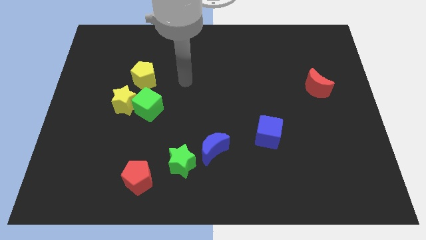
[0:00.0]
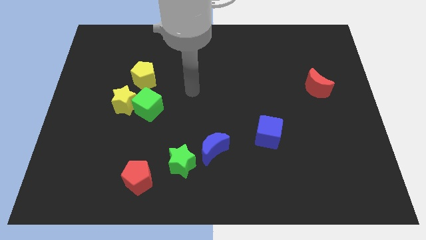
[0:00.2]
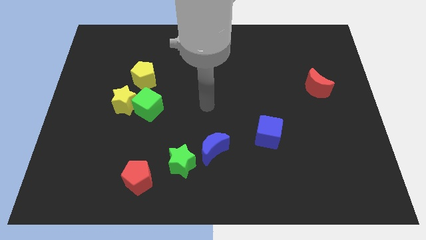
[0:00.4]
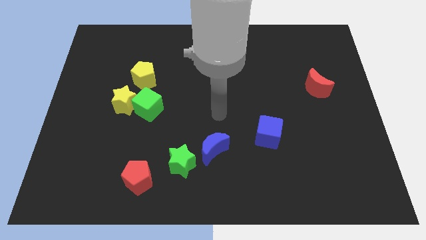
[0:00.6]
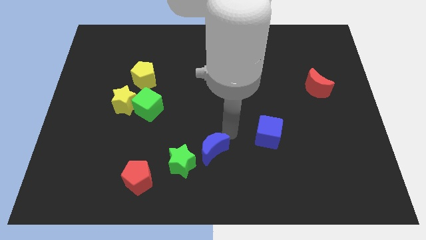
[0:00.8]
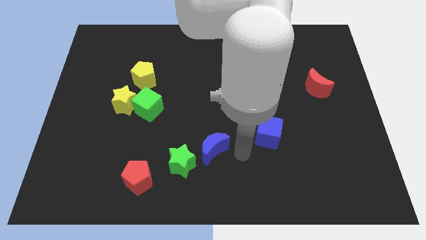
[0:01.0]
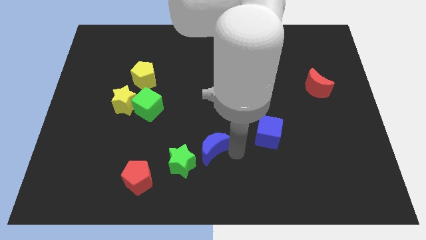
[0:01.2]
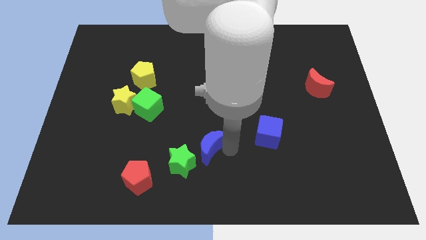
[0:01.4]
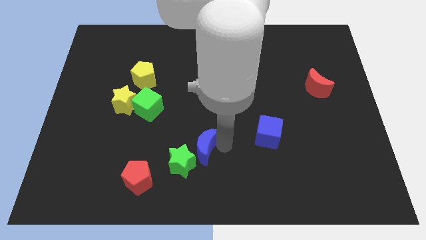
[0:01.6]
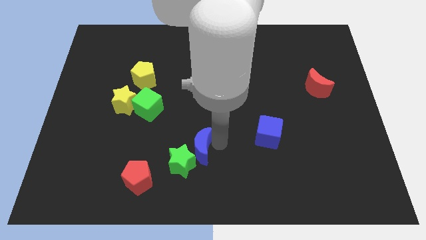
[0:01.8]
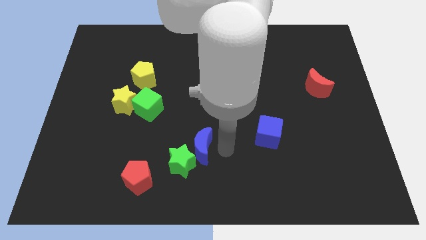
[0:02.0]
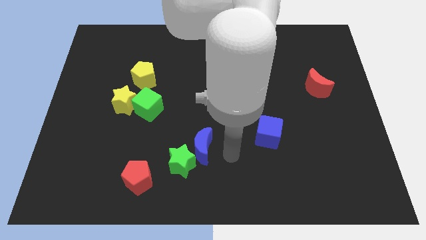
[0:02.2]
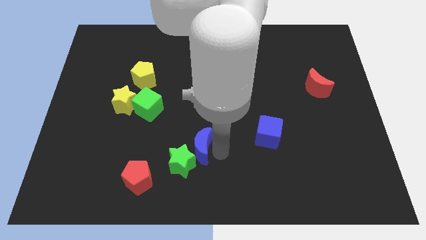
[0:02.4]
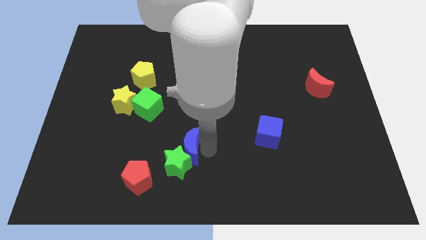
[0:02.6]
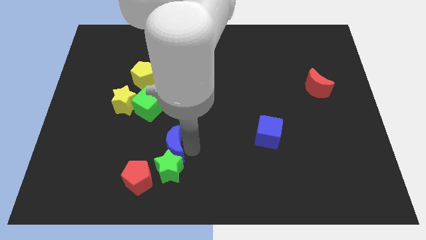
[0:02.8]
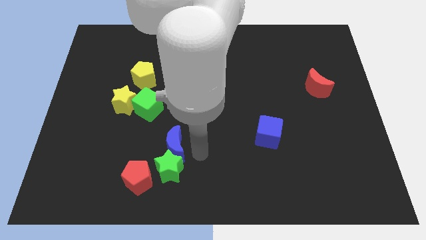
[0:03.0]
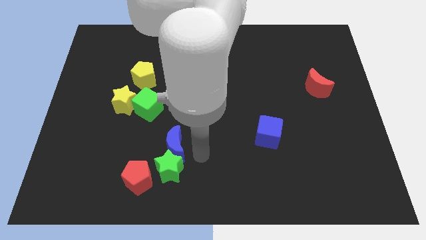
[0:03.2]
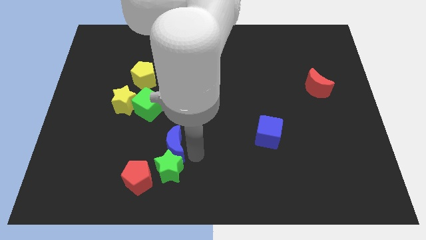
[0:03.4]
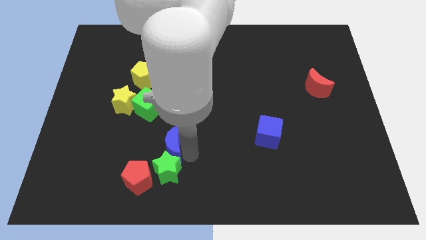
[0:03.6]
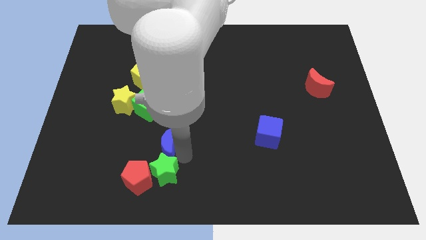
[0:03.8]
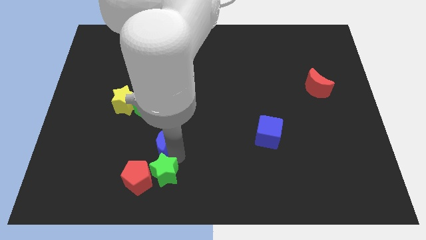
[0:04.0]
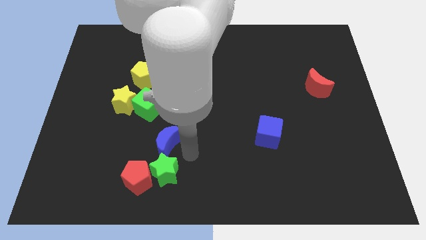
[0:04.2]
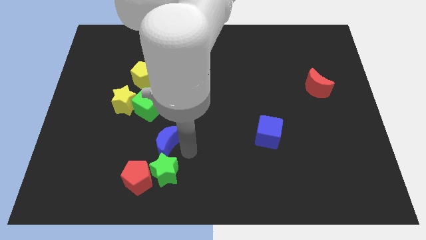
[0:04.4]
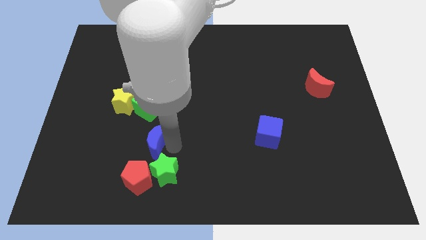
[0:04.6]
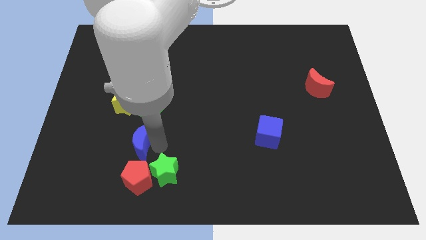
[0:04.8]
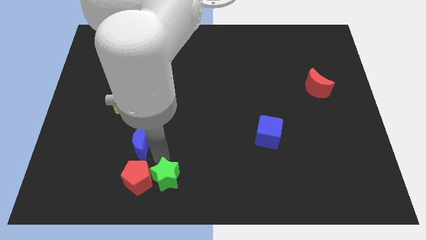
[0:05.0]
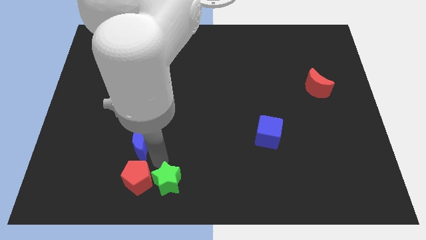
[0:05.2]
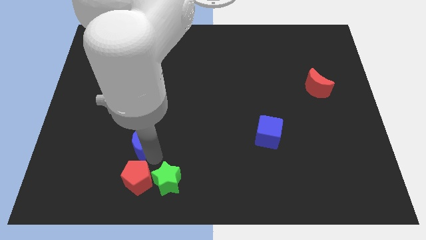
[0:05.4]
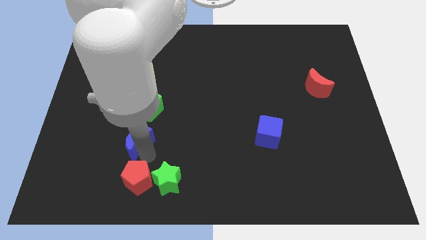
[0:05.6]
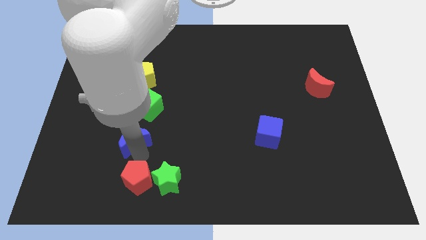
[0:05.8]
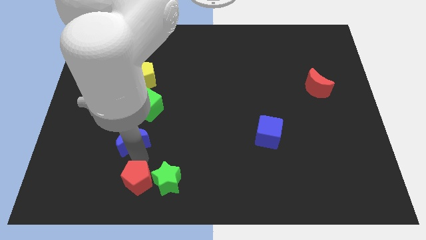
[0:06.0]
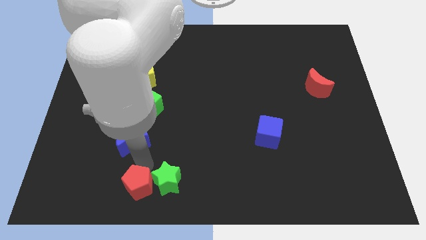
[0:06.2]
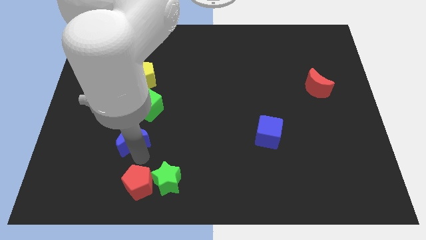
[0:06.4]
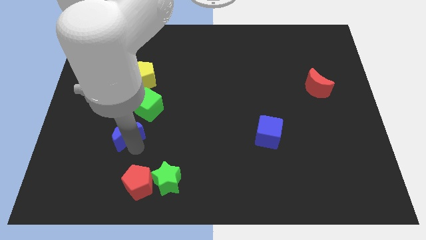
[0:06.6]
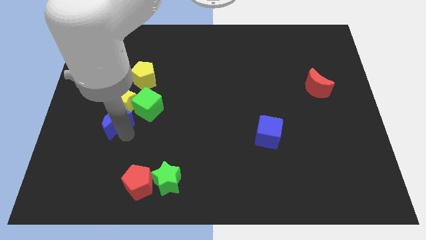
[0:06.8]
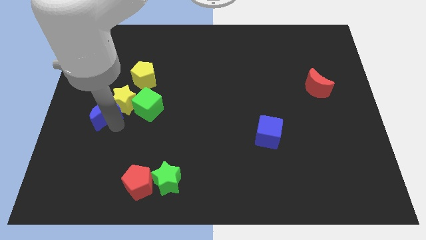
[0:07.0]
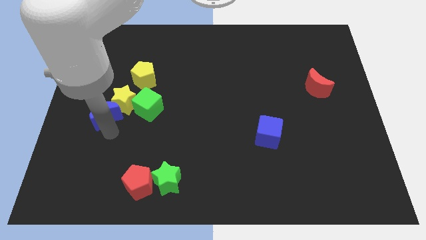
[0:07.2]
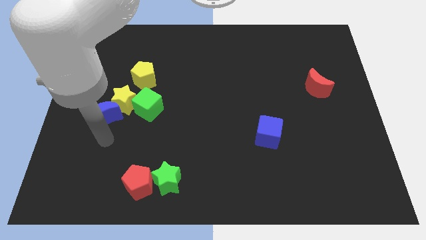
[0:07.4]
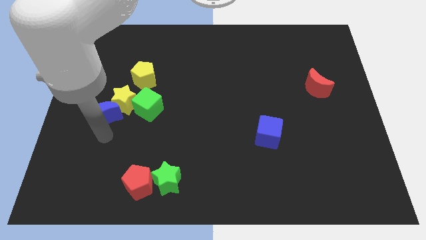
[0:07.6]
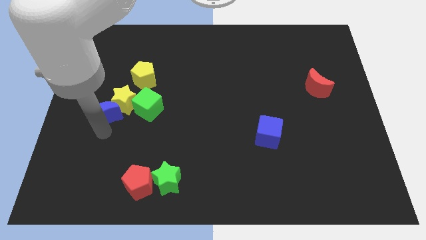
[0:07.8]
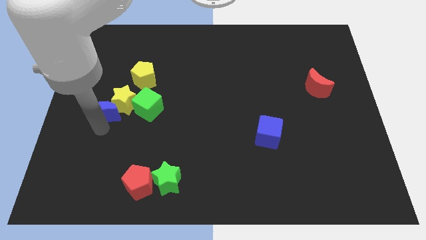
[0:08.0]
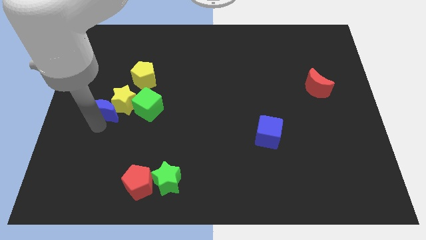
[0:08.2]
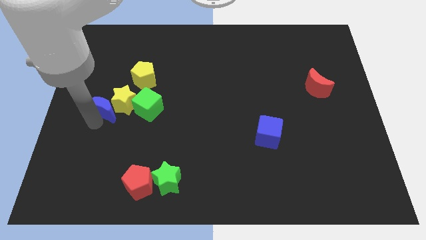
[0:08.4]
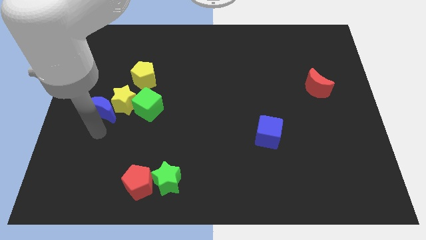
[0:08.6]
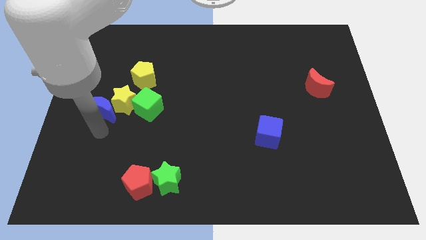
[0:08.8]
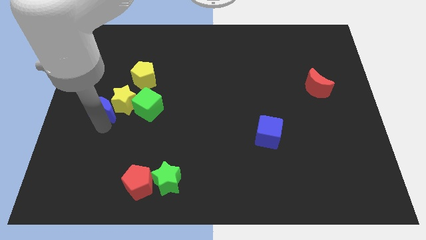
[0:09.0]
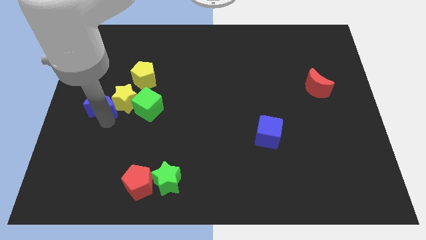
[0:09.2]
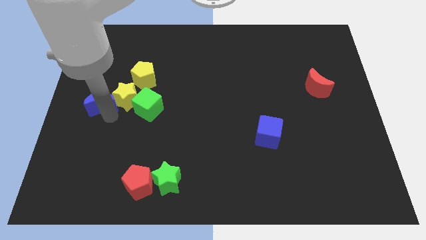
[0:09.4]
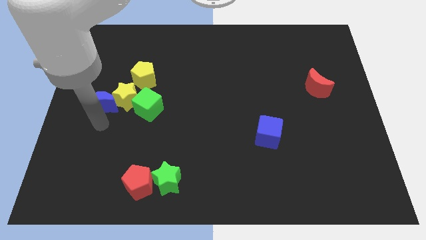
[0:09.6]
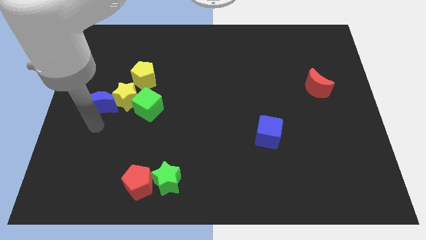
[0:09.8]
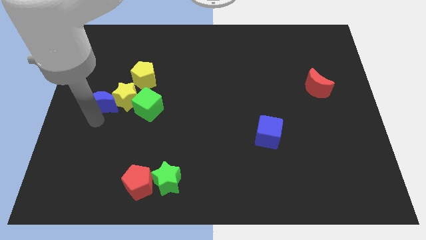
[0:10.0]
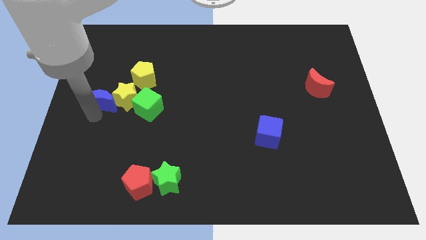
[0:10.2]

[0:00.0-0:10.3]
push the blue moon diagonally up and to the left of the yellow star

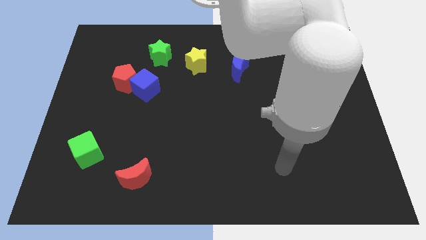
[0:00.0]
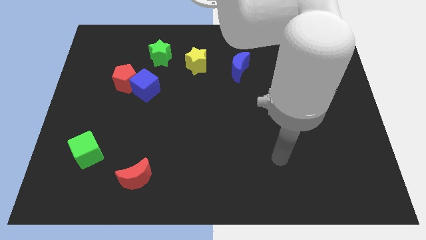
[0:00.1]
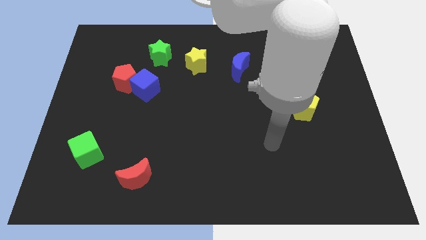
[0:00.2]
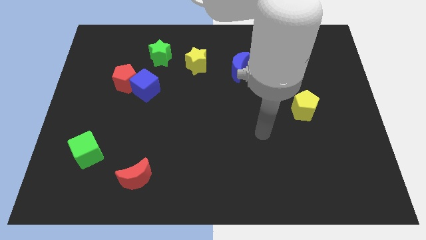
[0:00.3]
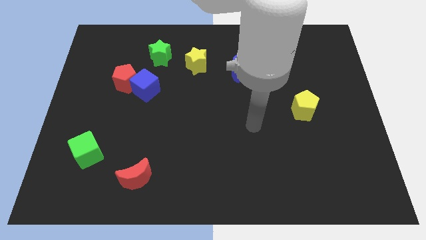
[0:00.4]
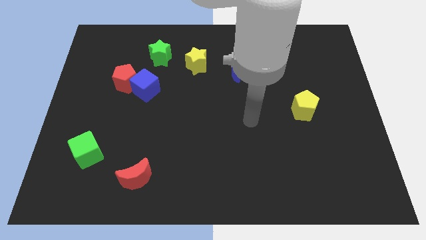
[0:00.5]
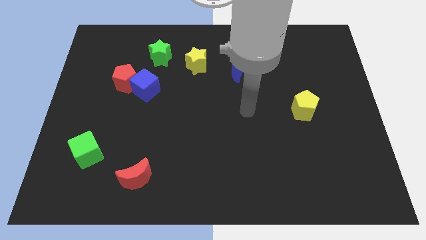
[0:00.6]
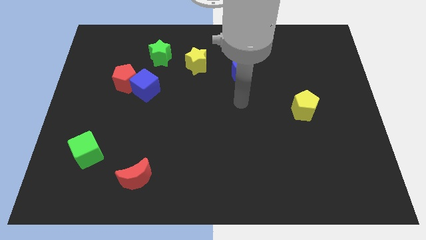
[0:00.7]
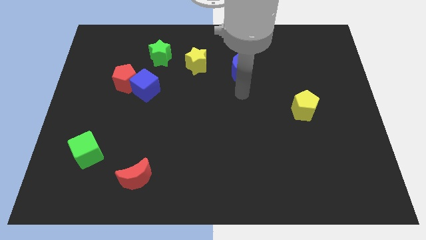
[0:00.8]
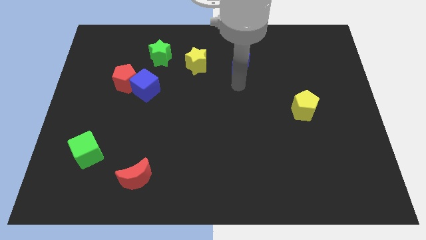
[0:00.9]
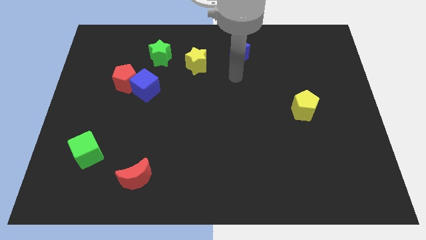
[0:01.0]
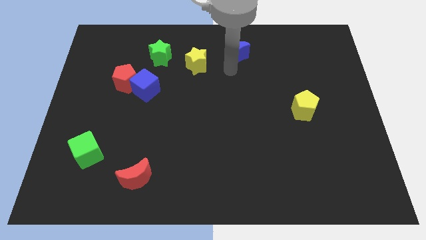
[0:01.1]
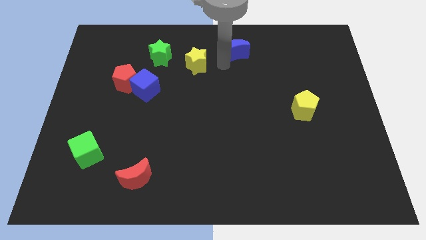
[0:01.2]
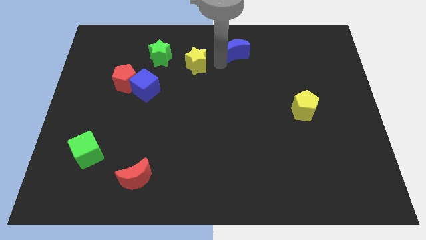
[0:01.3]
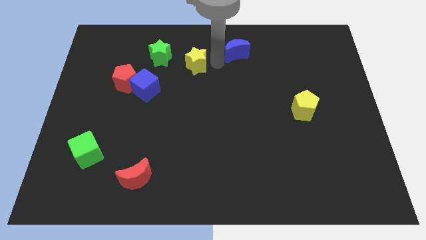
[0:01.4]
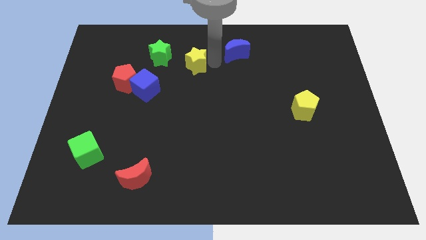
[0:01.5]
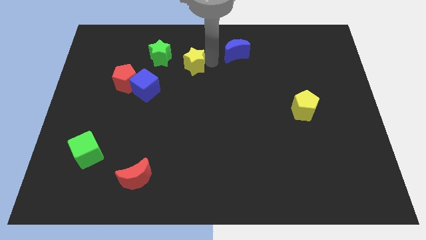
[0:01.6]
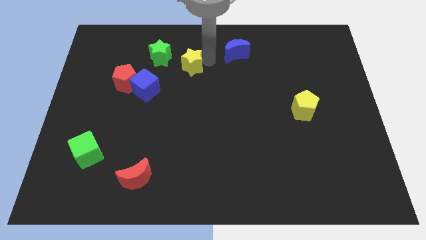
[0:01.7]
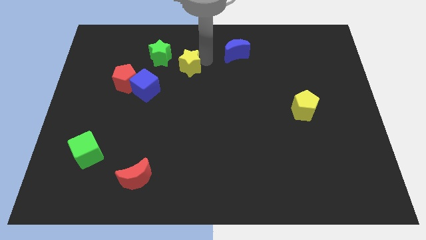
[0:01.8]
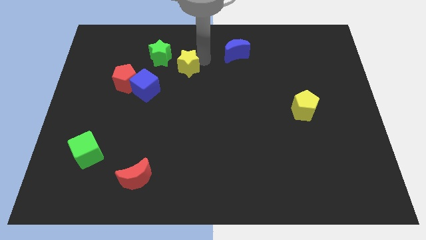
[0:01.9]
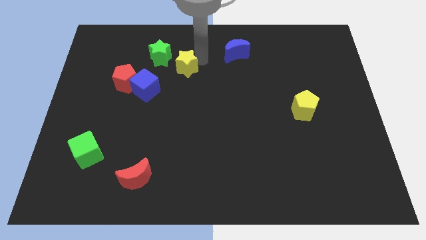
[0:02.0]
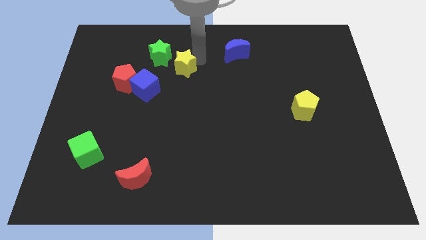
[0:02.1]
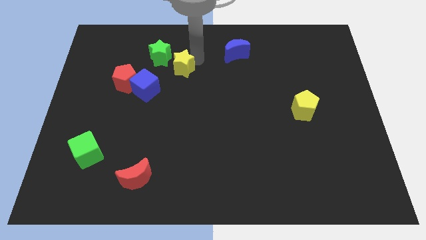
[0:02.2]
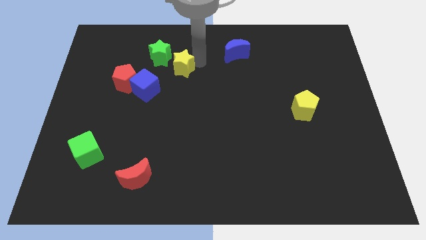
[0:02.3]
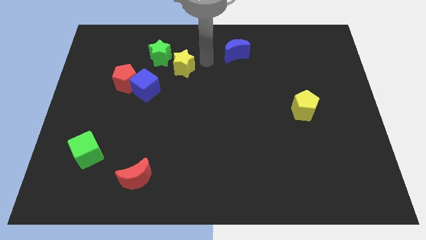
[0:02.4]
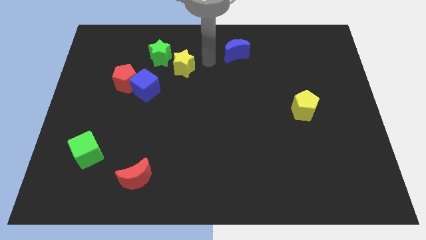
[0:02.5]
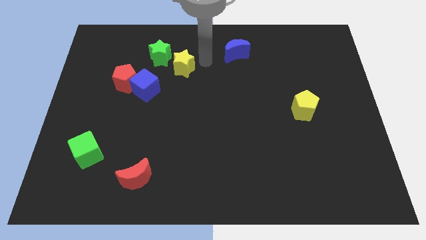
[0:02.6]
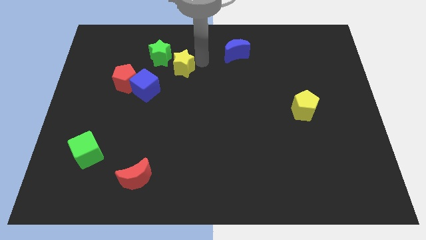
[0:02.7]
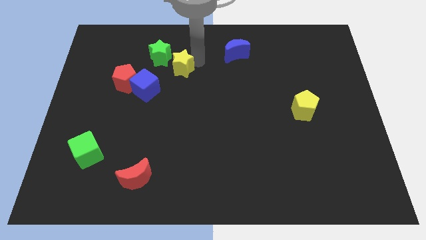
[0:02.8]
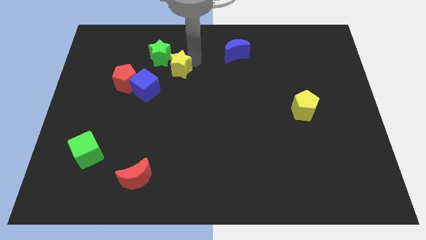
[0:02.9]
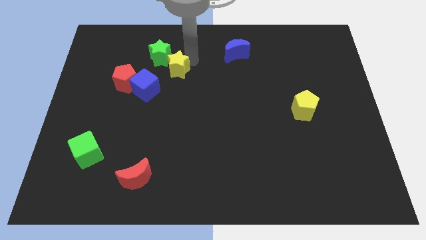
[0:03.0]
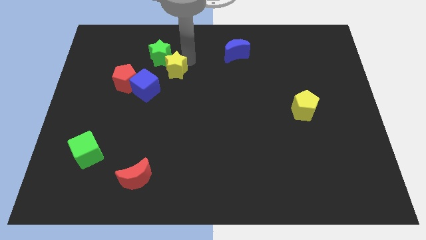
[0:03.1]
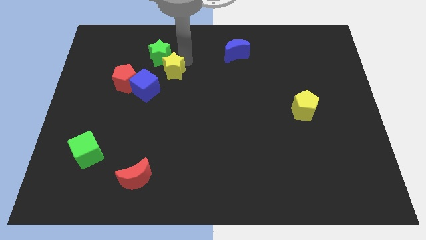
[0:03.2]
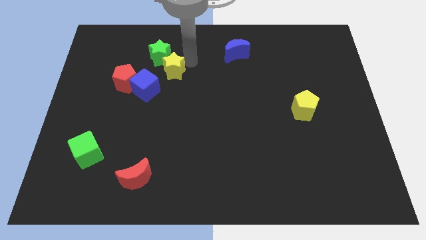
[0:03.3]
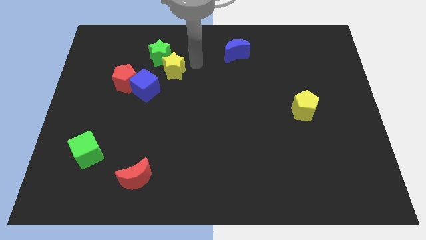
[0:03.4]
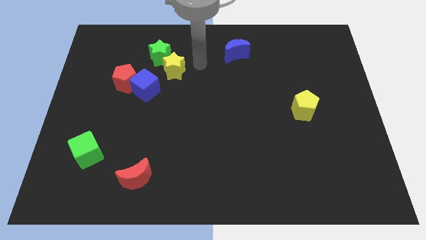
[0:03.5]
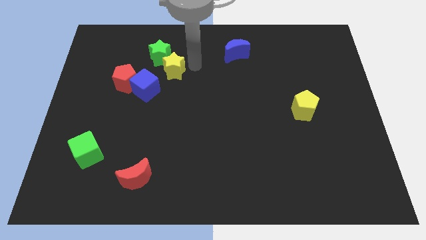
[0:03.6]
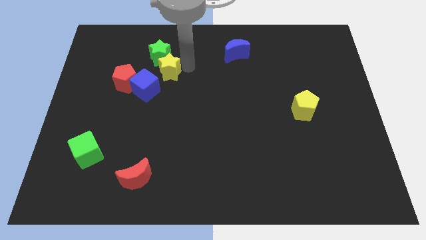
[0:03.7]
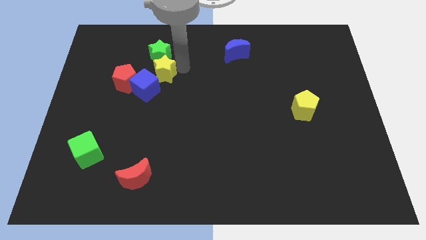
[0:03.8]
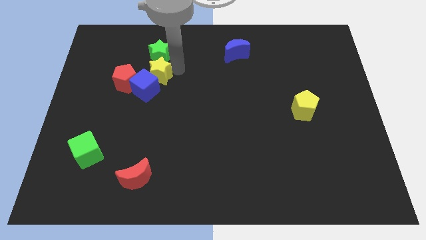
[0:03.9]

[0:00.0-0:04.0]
move the yellow star to the bottom left side of the green star
